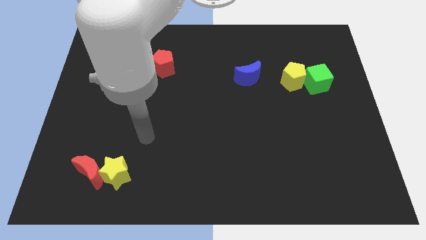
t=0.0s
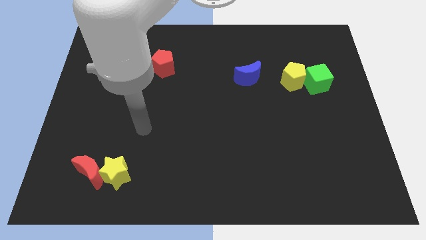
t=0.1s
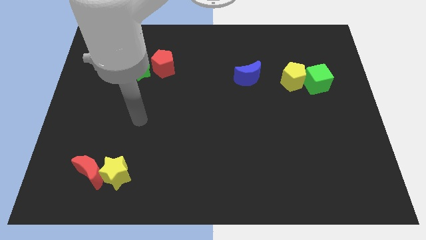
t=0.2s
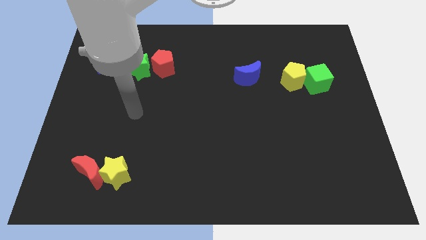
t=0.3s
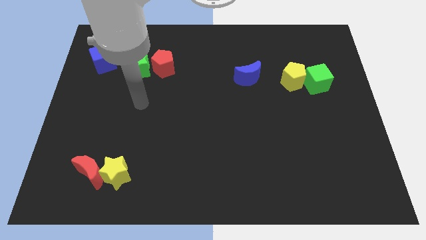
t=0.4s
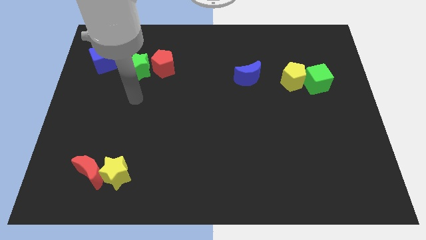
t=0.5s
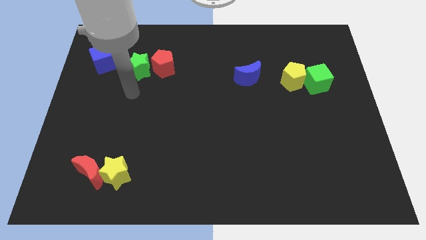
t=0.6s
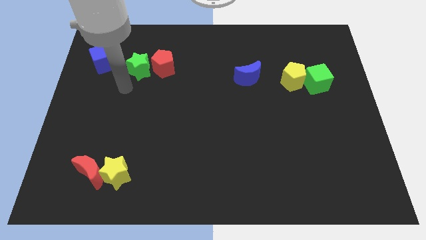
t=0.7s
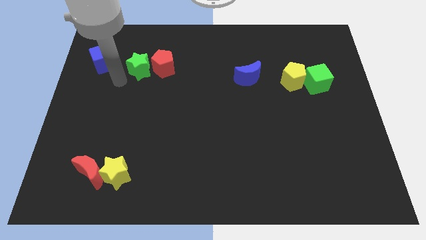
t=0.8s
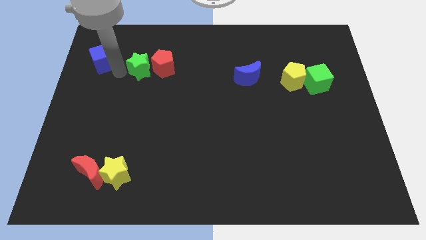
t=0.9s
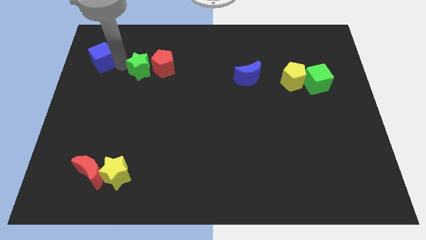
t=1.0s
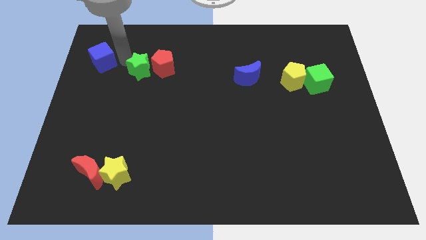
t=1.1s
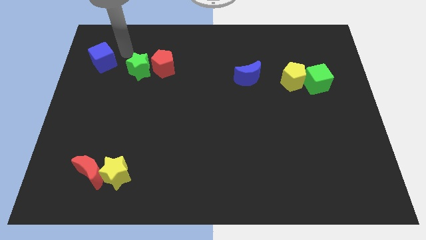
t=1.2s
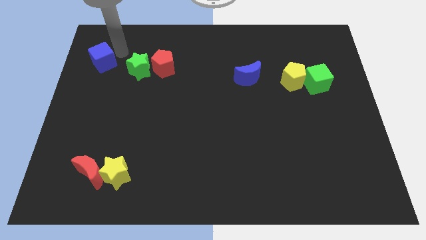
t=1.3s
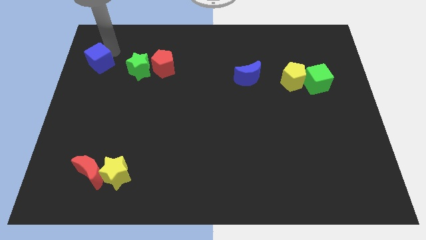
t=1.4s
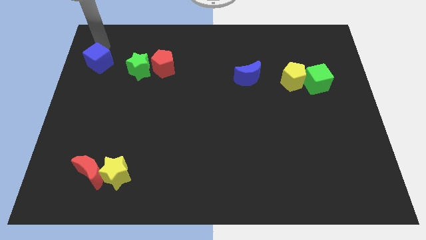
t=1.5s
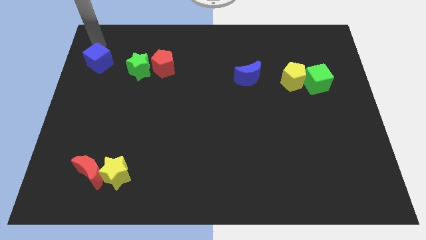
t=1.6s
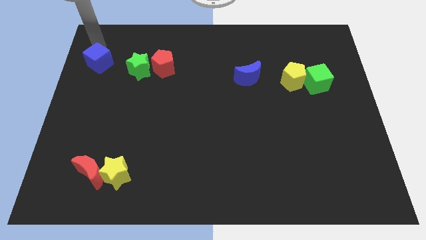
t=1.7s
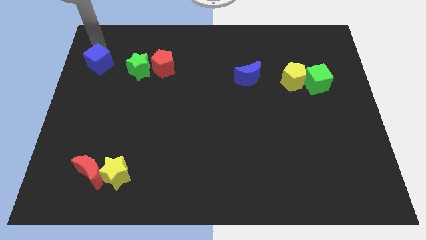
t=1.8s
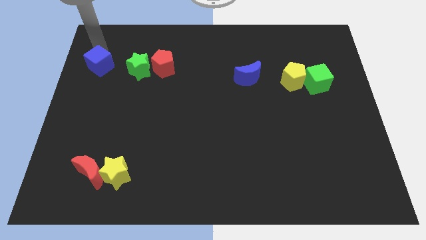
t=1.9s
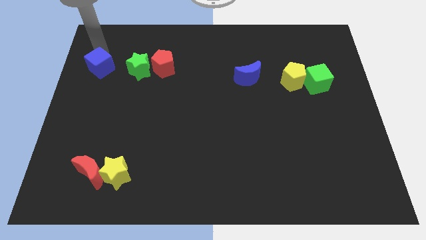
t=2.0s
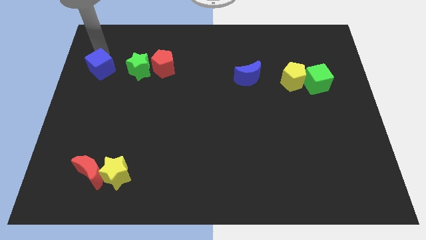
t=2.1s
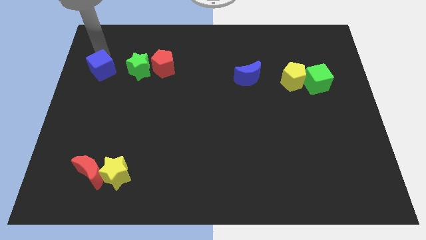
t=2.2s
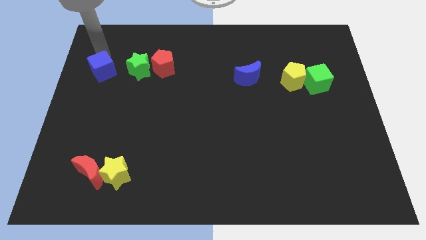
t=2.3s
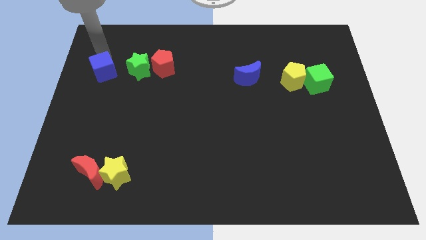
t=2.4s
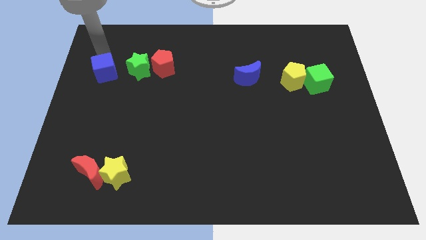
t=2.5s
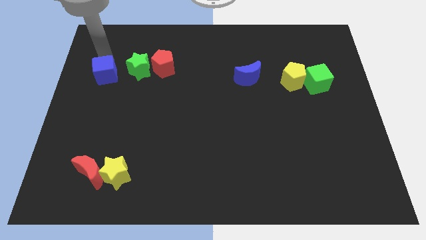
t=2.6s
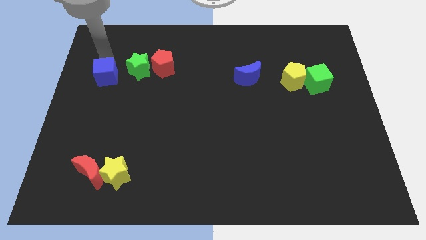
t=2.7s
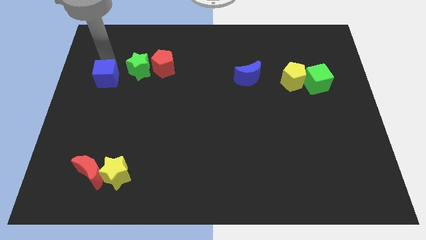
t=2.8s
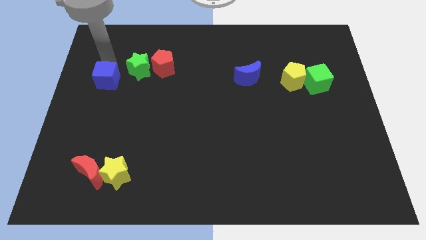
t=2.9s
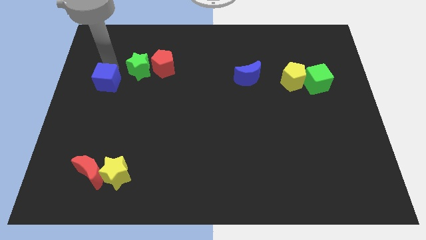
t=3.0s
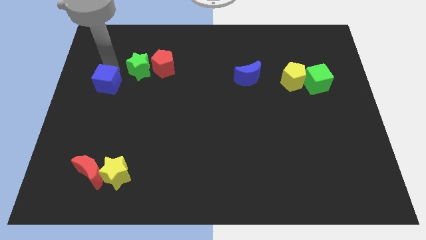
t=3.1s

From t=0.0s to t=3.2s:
slightly slide the blue cube downwards

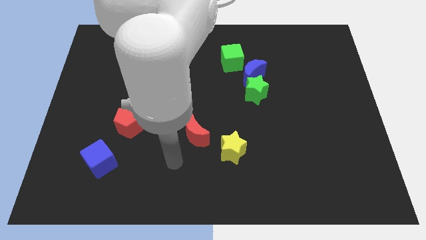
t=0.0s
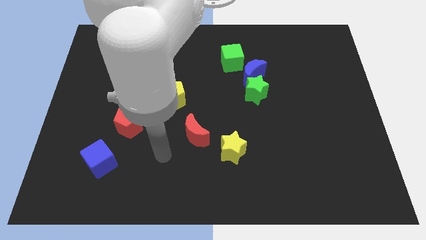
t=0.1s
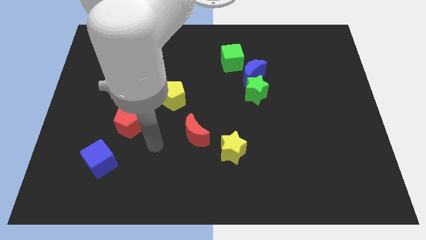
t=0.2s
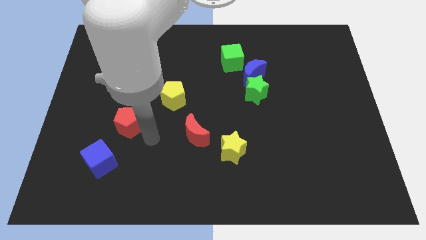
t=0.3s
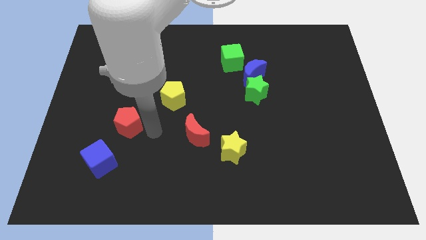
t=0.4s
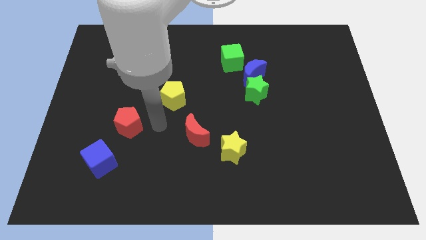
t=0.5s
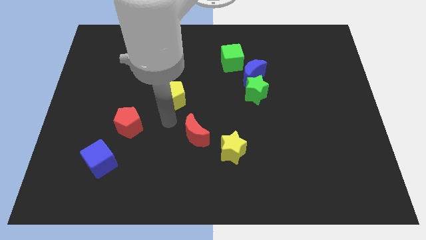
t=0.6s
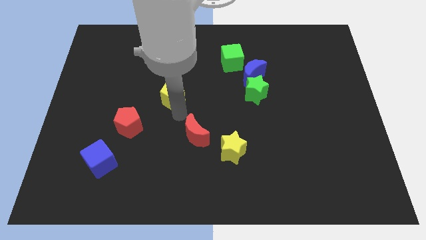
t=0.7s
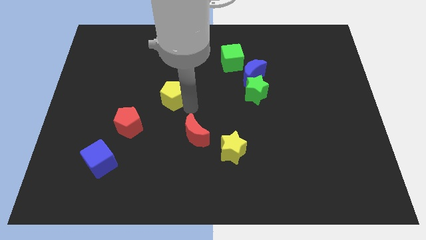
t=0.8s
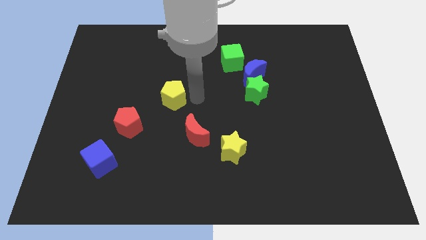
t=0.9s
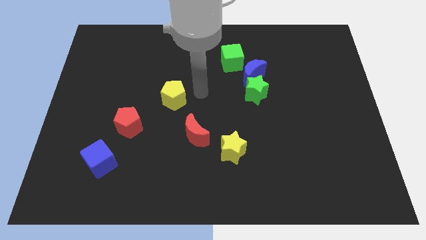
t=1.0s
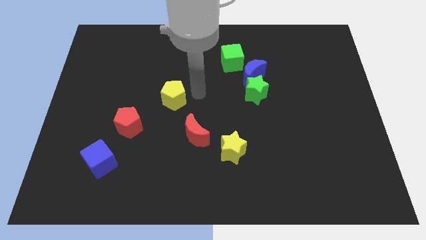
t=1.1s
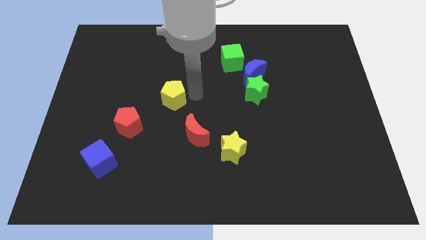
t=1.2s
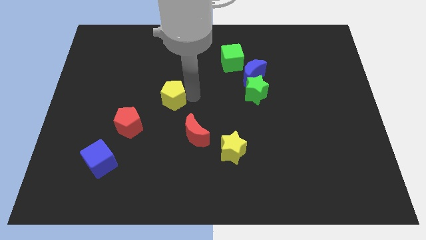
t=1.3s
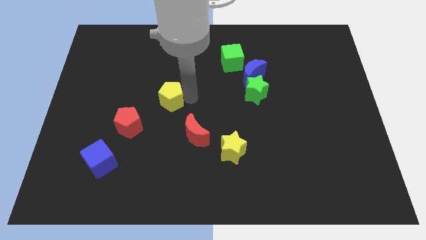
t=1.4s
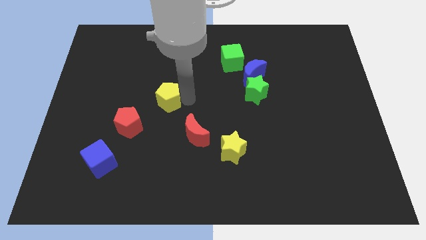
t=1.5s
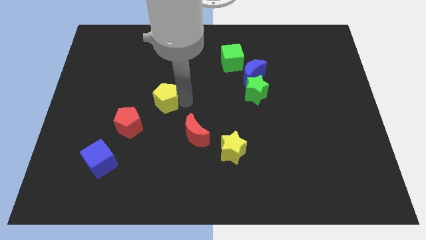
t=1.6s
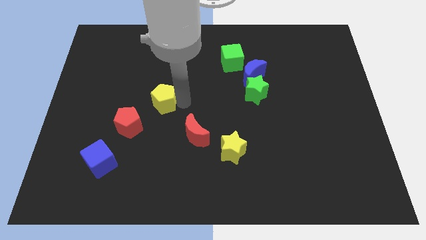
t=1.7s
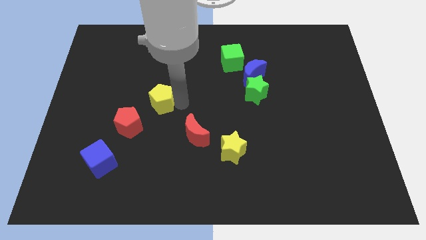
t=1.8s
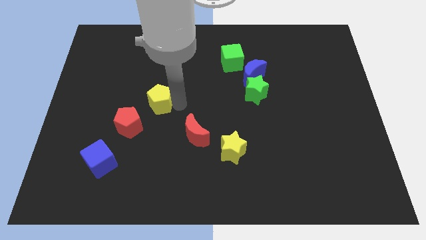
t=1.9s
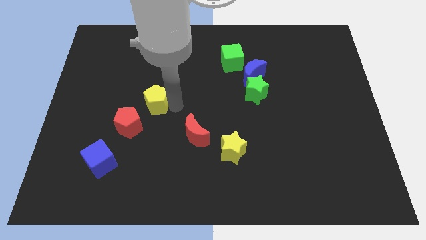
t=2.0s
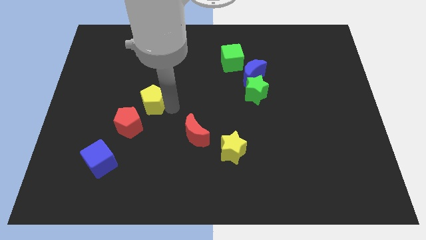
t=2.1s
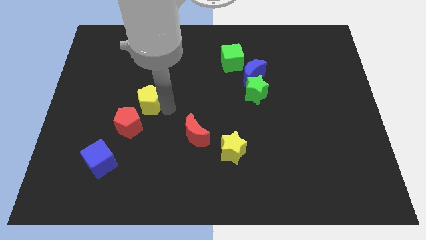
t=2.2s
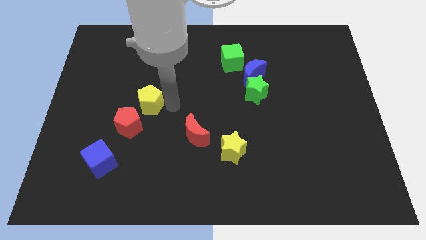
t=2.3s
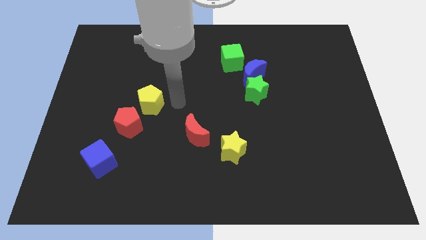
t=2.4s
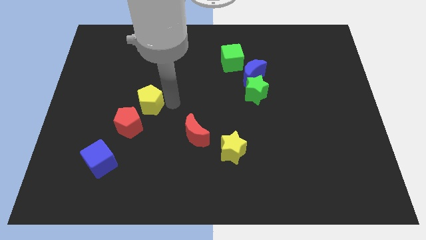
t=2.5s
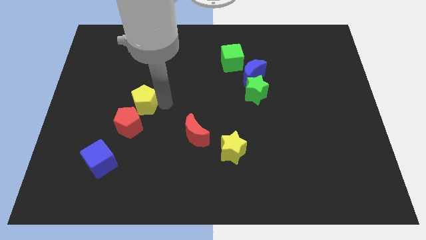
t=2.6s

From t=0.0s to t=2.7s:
slide the yellow pentagon a bit to the left

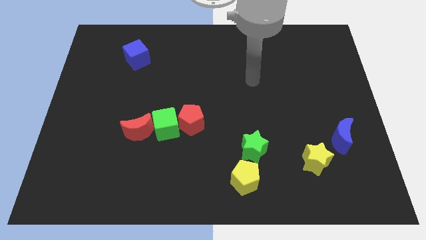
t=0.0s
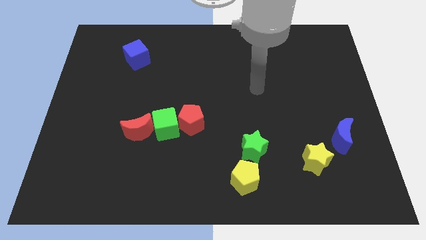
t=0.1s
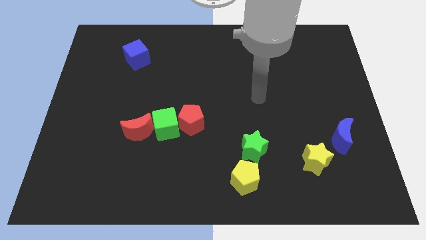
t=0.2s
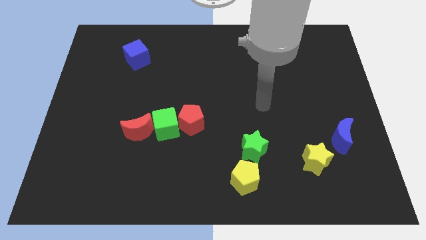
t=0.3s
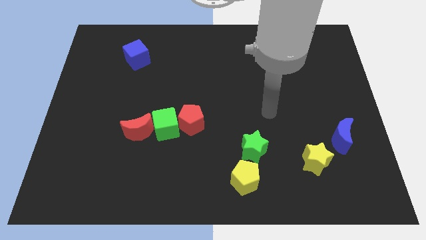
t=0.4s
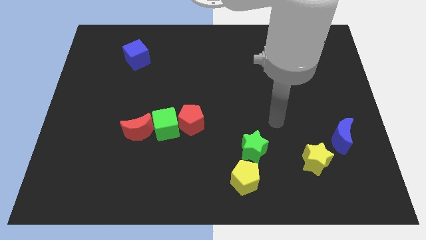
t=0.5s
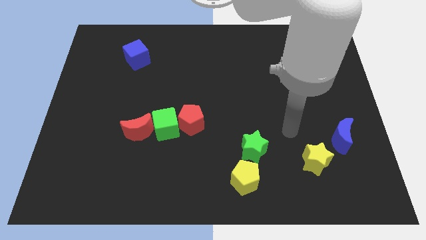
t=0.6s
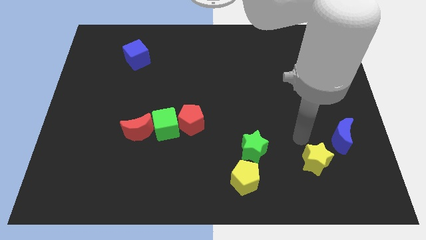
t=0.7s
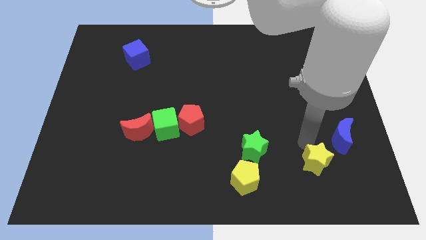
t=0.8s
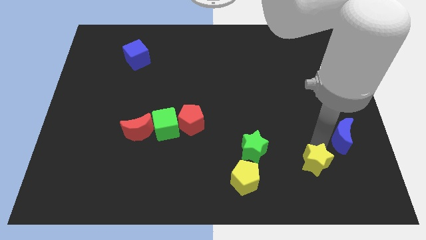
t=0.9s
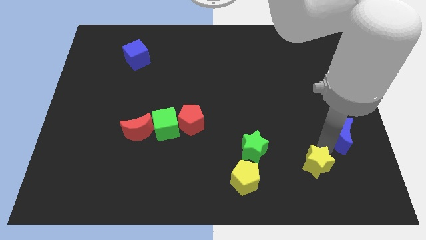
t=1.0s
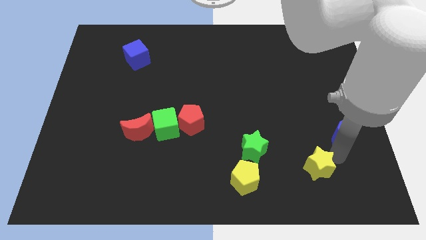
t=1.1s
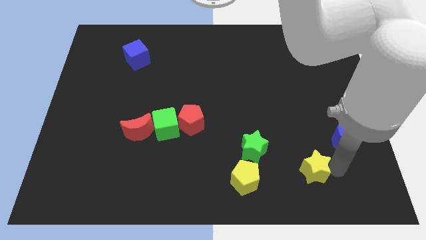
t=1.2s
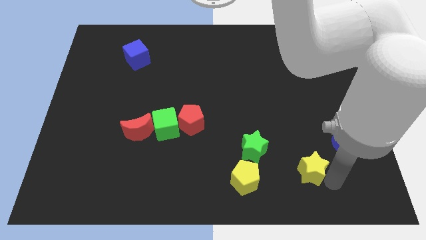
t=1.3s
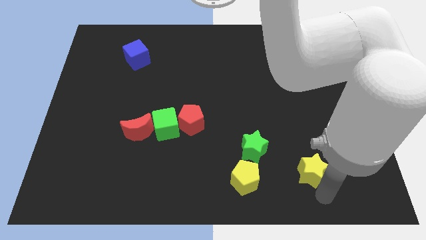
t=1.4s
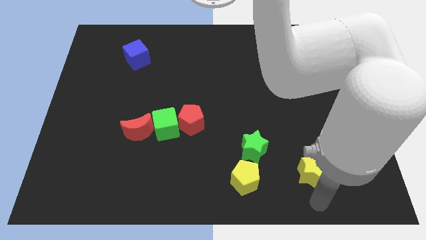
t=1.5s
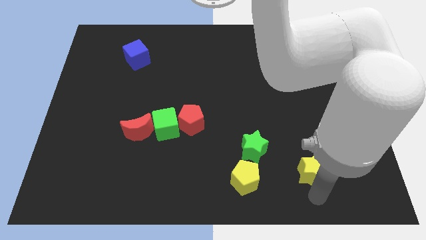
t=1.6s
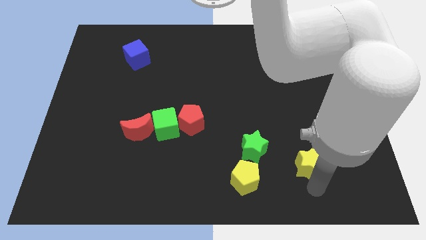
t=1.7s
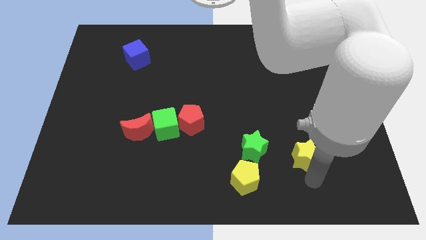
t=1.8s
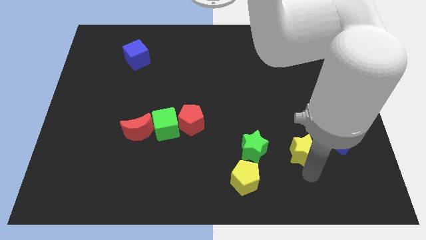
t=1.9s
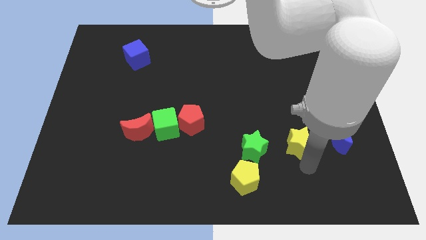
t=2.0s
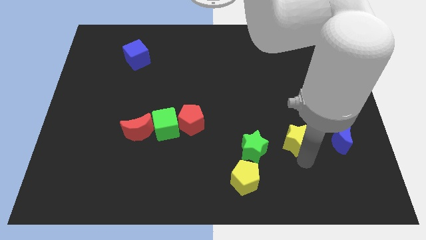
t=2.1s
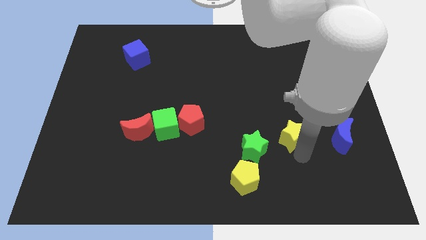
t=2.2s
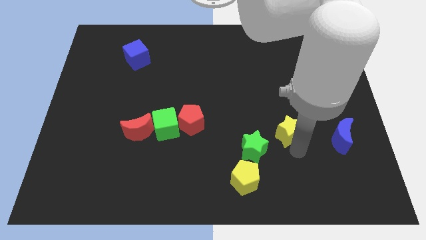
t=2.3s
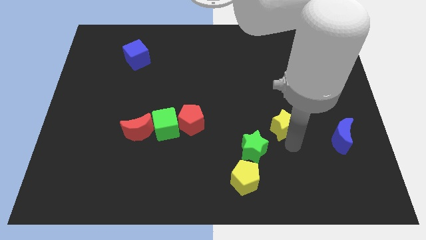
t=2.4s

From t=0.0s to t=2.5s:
slightly move the yellow star upwards

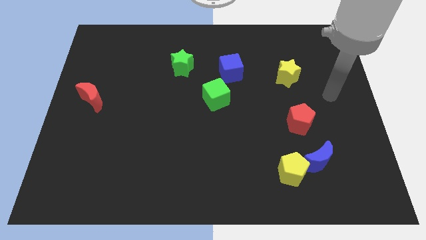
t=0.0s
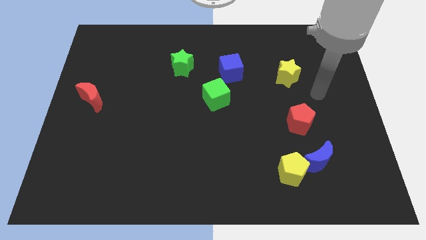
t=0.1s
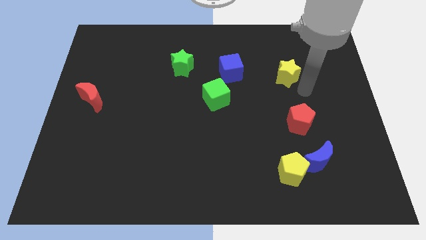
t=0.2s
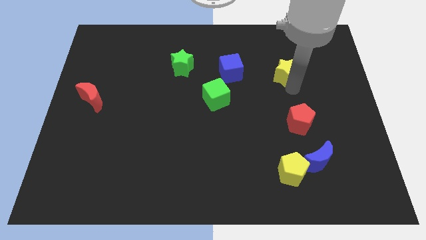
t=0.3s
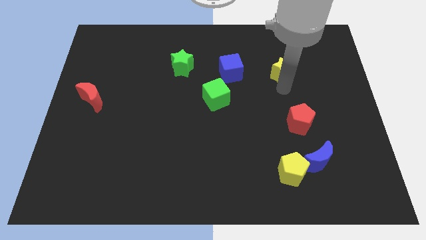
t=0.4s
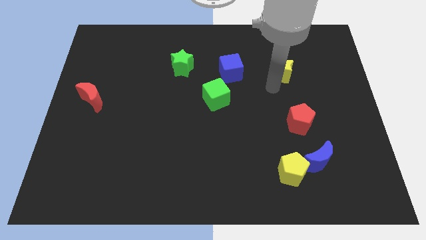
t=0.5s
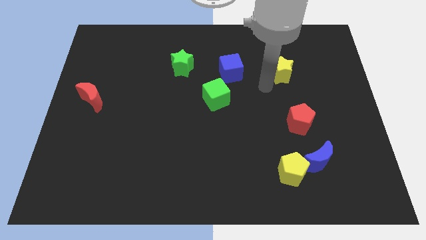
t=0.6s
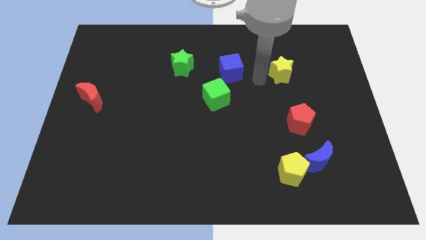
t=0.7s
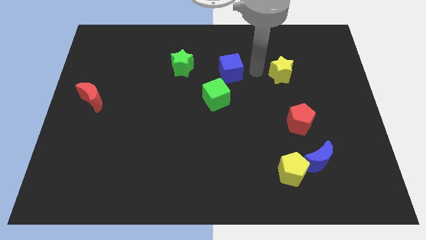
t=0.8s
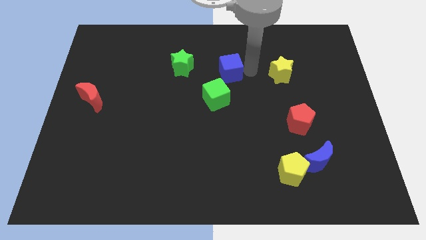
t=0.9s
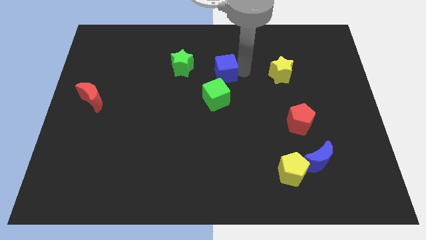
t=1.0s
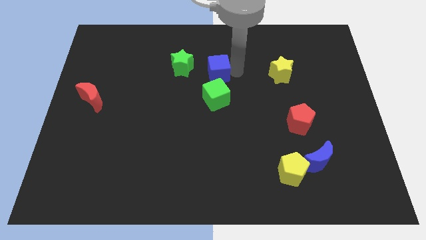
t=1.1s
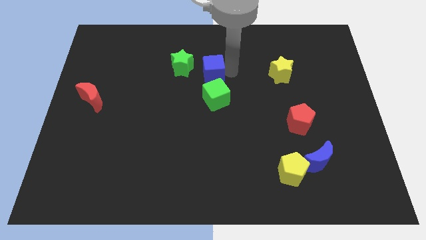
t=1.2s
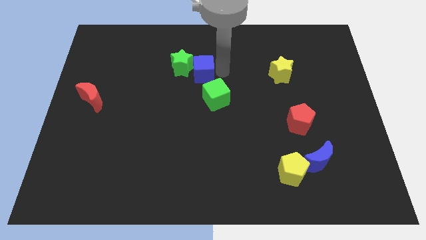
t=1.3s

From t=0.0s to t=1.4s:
push the blue cube left slightly
